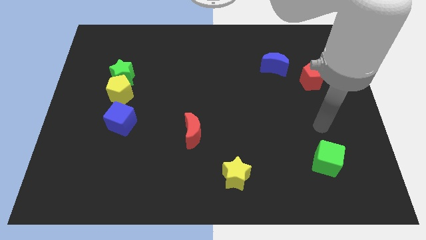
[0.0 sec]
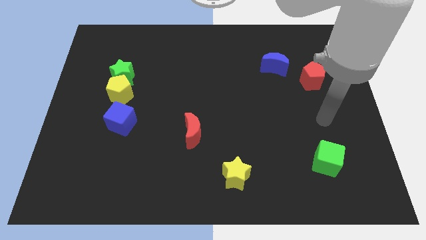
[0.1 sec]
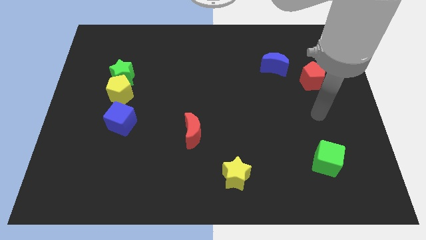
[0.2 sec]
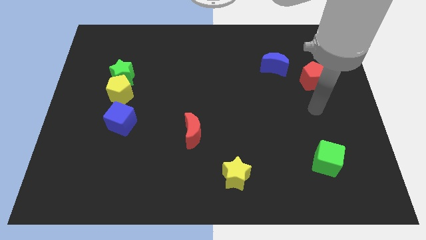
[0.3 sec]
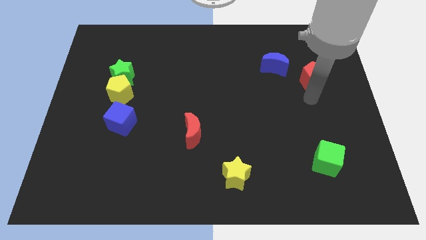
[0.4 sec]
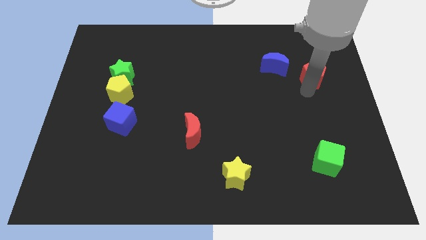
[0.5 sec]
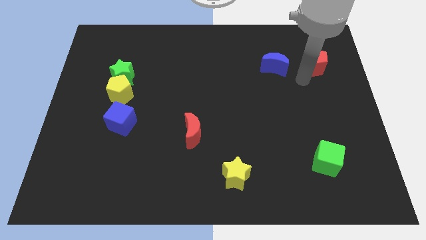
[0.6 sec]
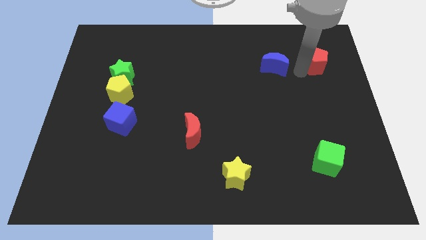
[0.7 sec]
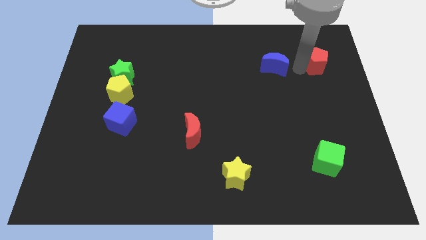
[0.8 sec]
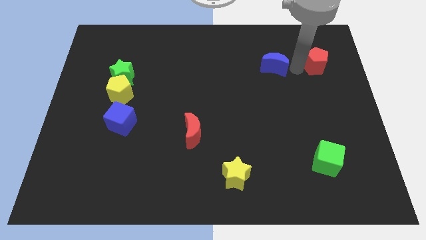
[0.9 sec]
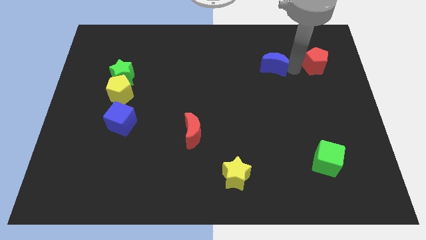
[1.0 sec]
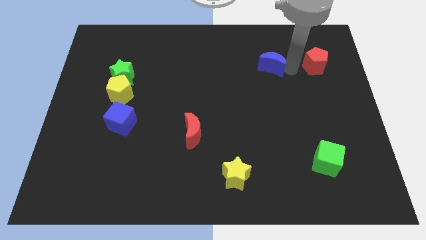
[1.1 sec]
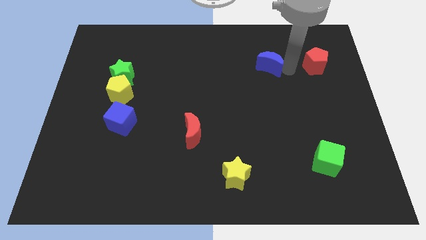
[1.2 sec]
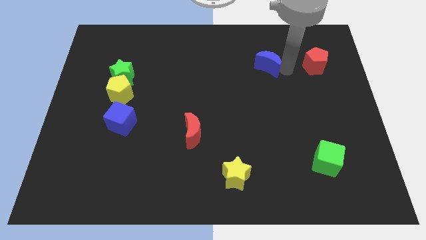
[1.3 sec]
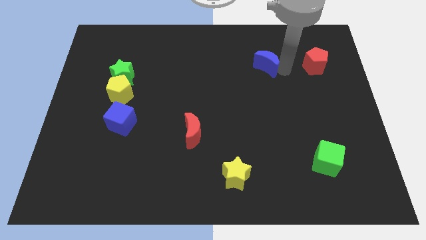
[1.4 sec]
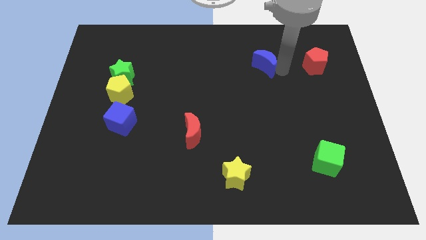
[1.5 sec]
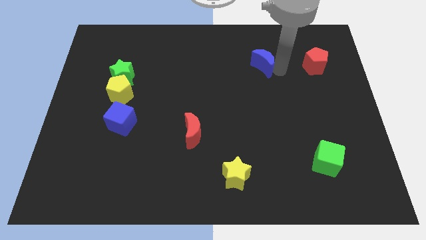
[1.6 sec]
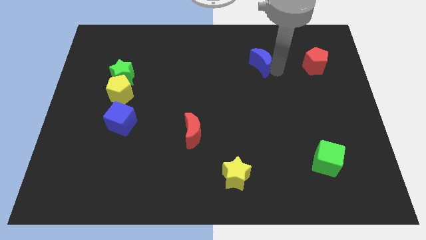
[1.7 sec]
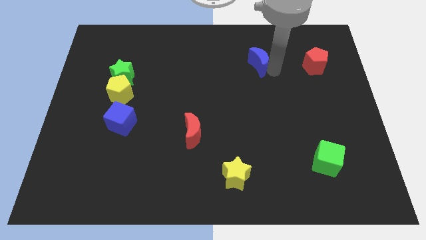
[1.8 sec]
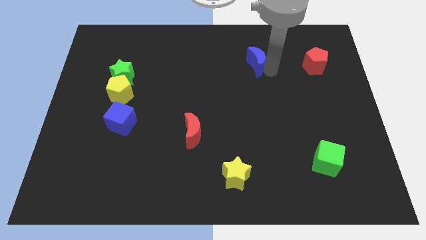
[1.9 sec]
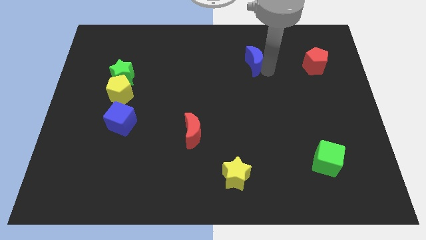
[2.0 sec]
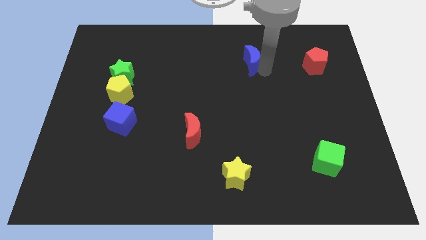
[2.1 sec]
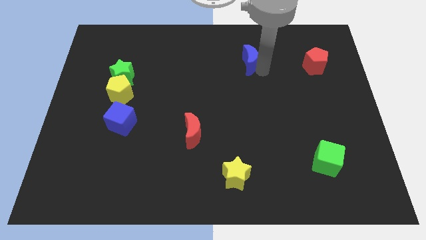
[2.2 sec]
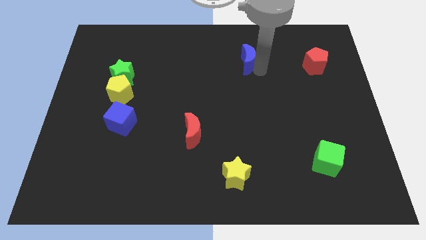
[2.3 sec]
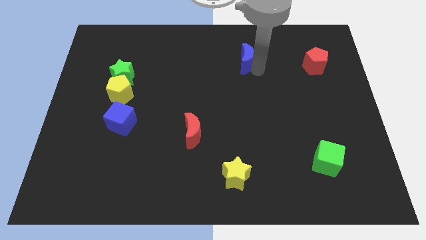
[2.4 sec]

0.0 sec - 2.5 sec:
slightly push the blue moon left

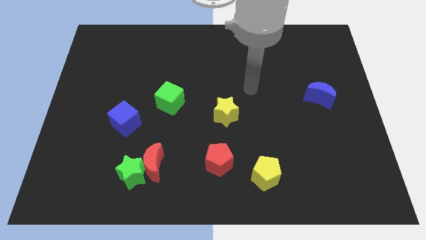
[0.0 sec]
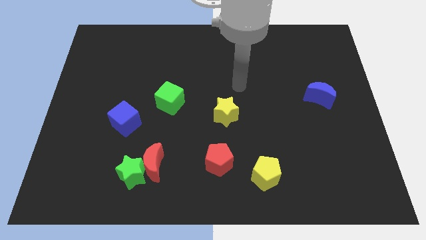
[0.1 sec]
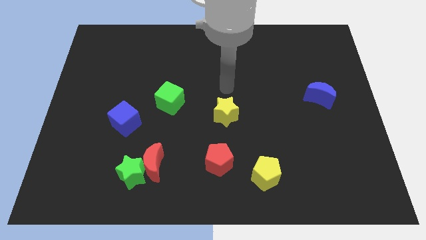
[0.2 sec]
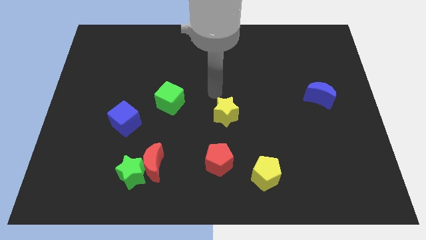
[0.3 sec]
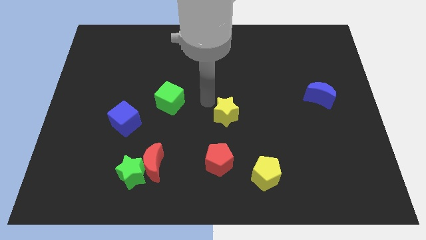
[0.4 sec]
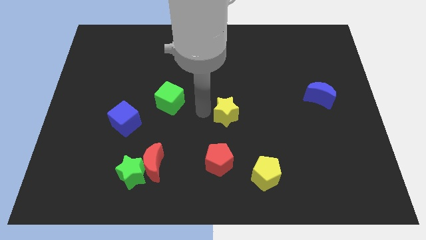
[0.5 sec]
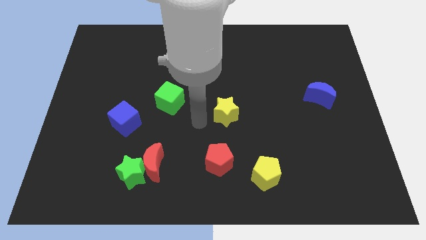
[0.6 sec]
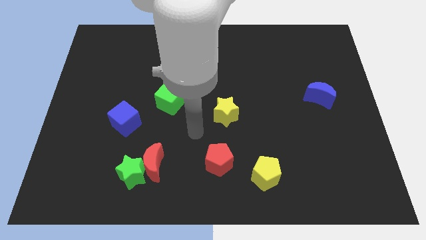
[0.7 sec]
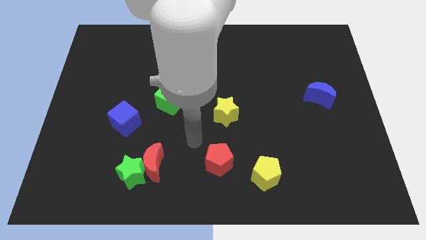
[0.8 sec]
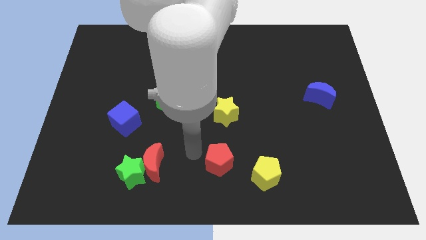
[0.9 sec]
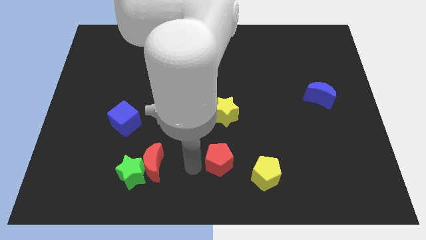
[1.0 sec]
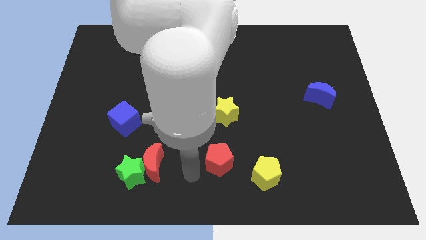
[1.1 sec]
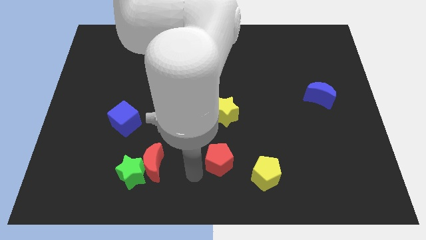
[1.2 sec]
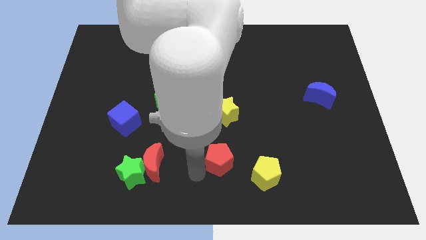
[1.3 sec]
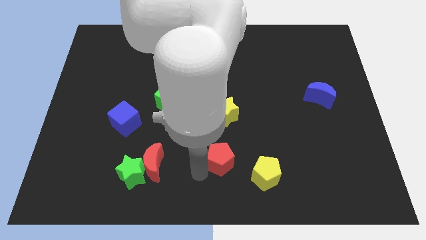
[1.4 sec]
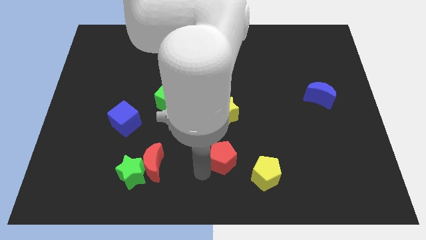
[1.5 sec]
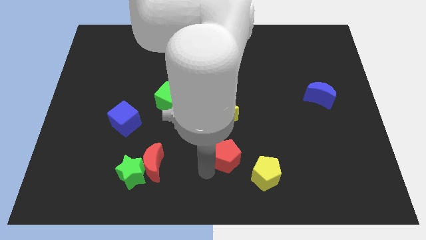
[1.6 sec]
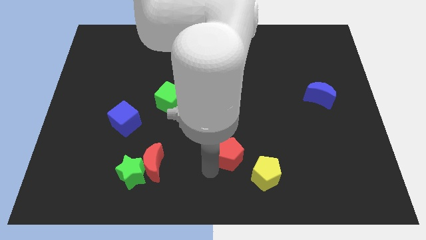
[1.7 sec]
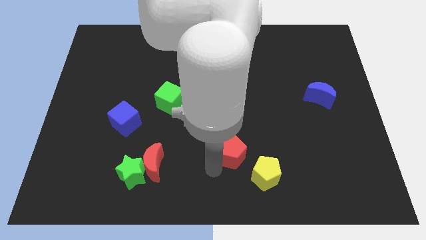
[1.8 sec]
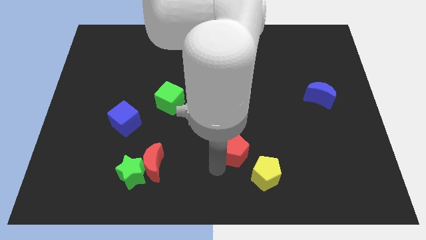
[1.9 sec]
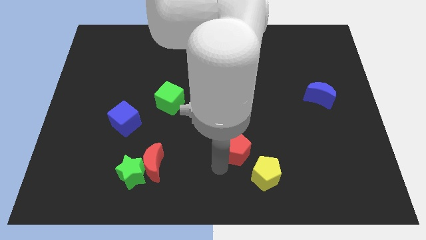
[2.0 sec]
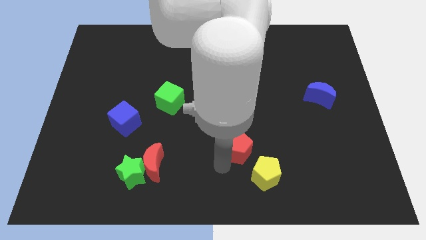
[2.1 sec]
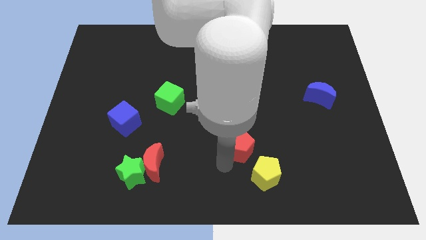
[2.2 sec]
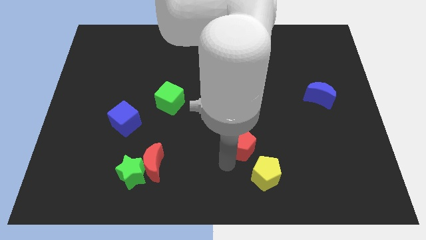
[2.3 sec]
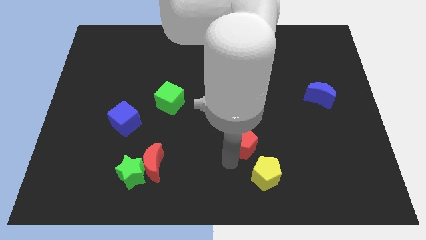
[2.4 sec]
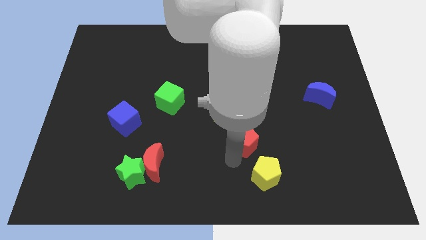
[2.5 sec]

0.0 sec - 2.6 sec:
move the red pentagon diagonally upwards and right a little bit

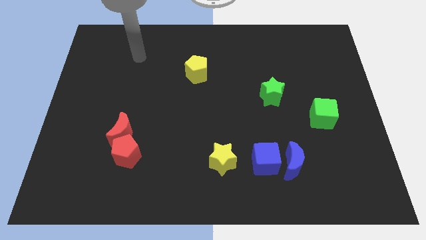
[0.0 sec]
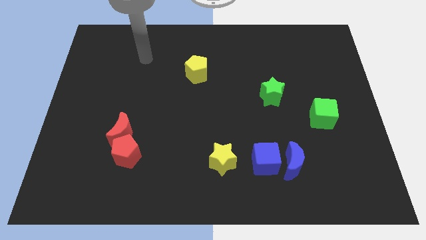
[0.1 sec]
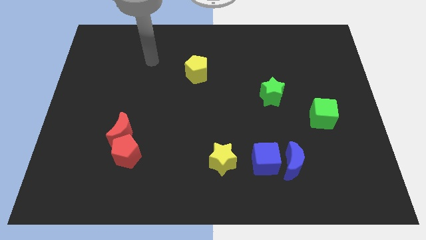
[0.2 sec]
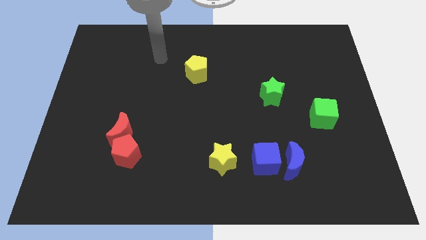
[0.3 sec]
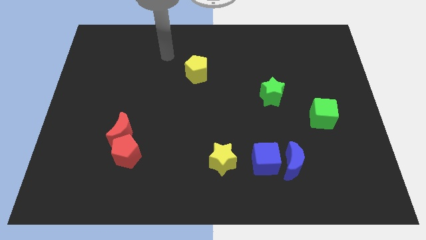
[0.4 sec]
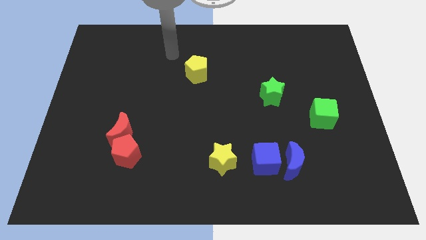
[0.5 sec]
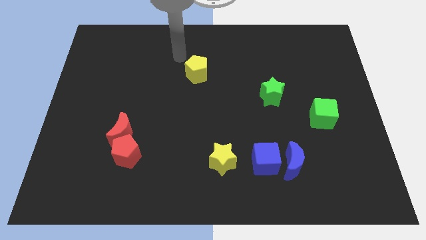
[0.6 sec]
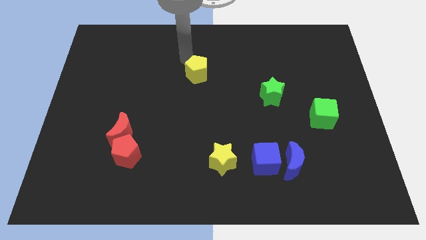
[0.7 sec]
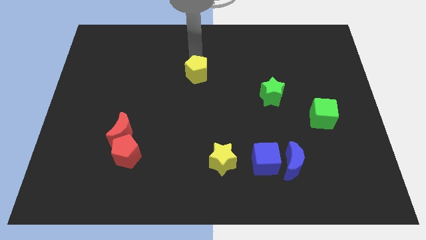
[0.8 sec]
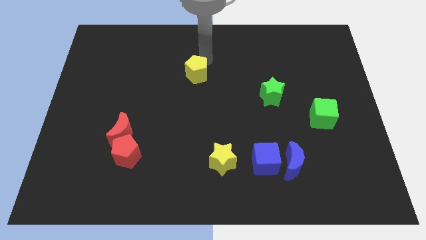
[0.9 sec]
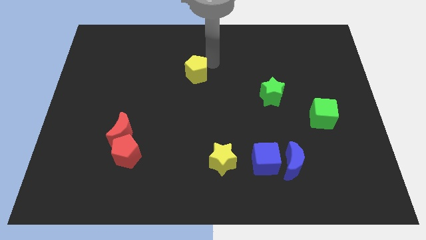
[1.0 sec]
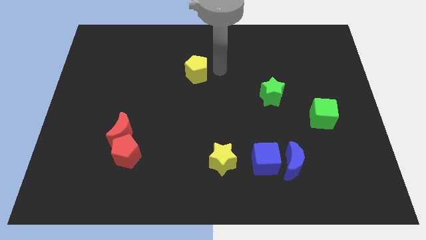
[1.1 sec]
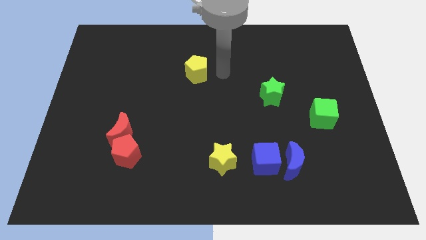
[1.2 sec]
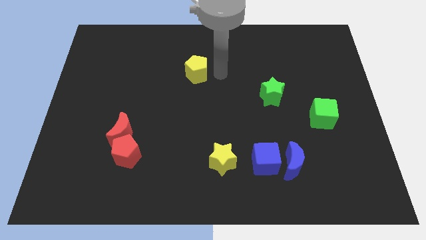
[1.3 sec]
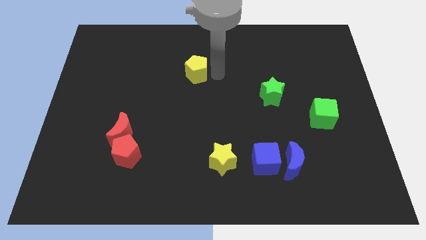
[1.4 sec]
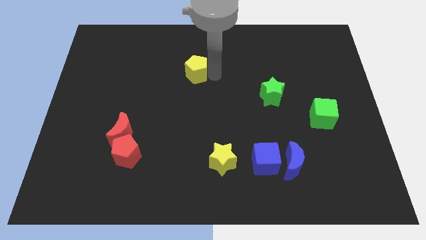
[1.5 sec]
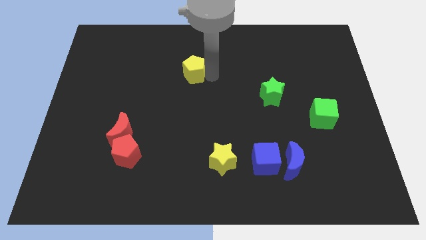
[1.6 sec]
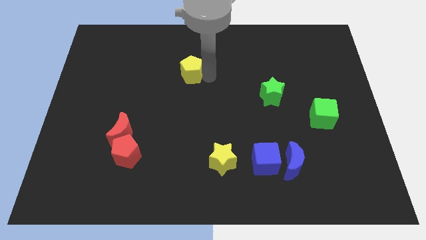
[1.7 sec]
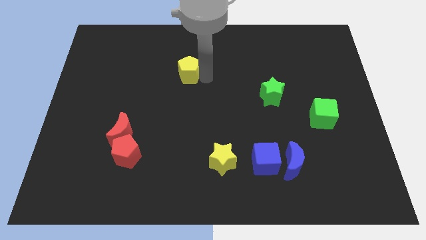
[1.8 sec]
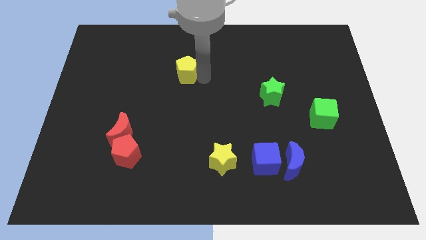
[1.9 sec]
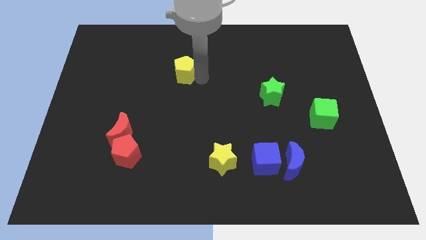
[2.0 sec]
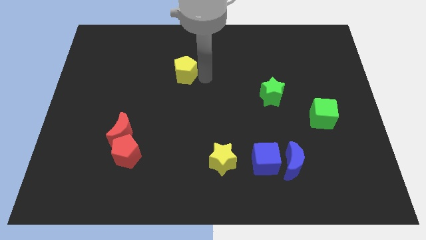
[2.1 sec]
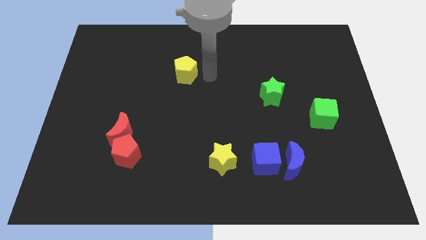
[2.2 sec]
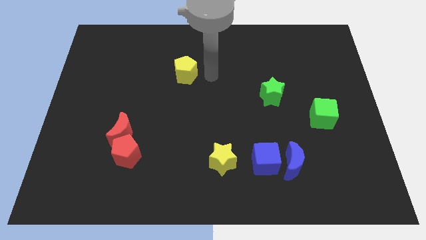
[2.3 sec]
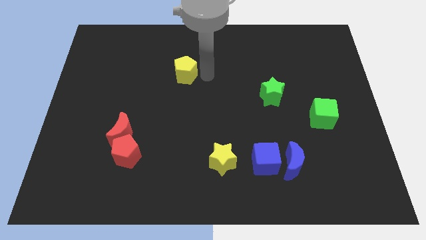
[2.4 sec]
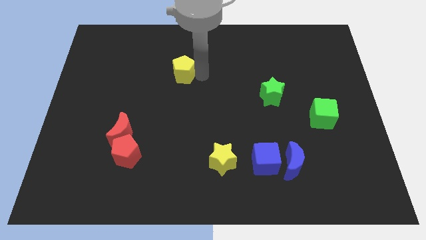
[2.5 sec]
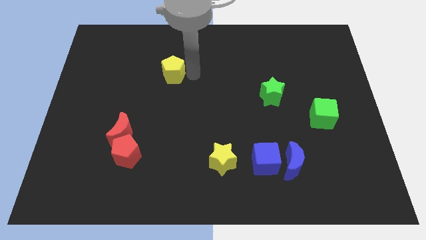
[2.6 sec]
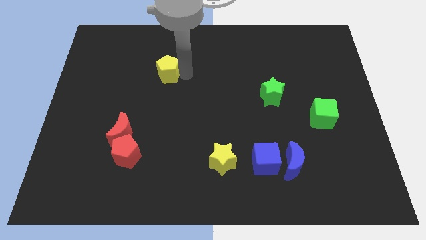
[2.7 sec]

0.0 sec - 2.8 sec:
push the yellow pentagon a little bit left
